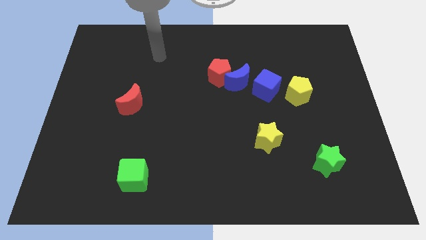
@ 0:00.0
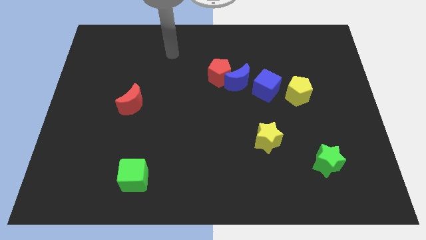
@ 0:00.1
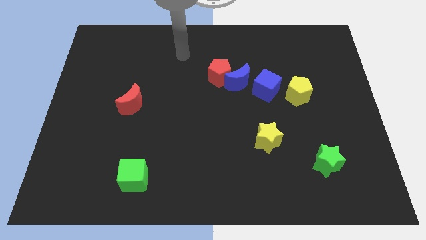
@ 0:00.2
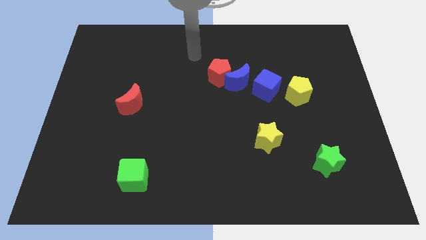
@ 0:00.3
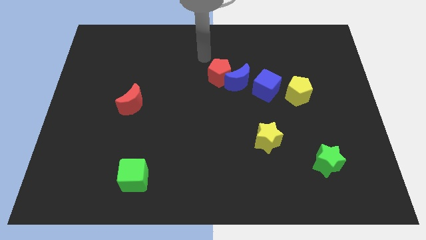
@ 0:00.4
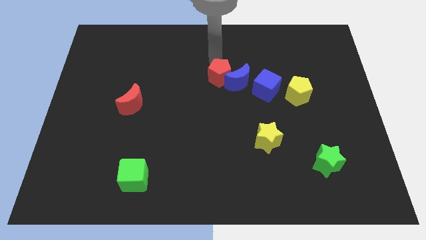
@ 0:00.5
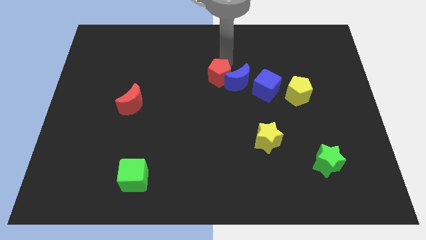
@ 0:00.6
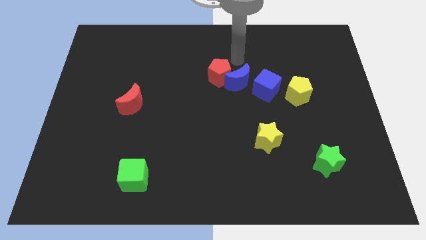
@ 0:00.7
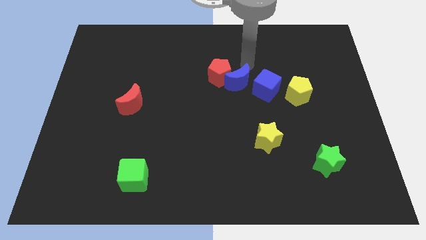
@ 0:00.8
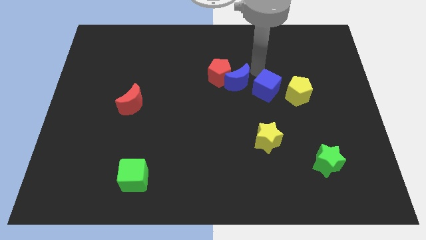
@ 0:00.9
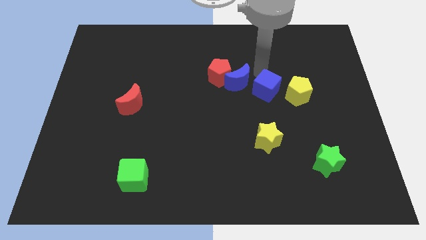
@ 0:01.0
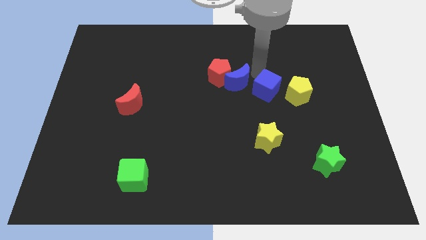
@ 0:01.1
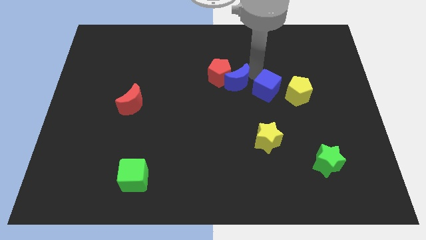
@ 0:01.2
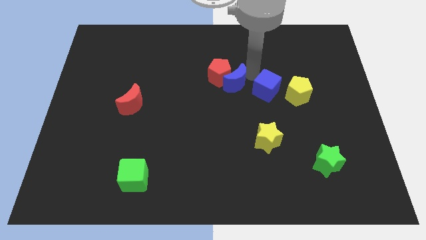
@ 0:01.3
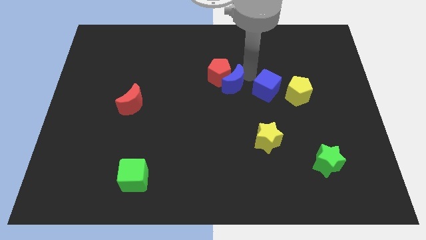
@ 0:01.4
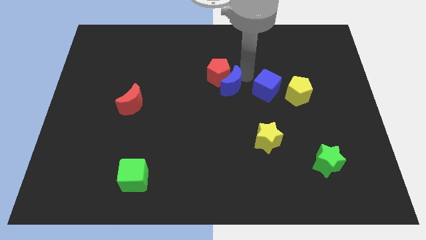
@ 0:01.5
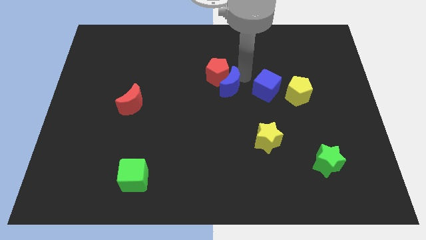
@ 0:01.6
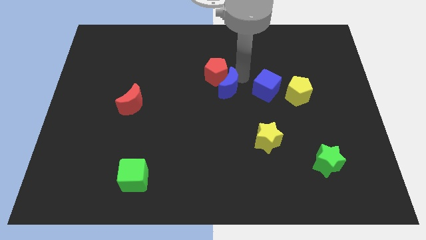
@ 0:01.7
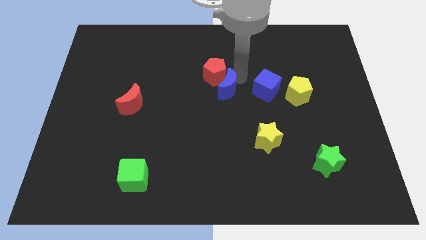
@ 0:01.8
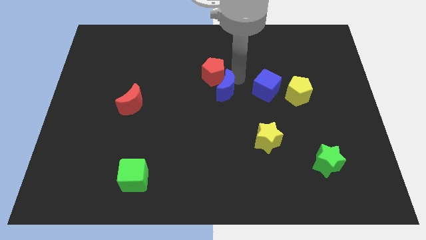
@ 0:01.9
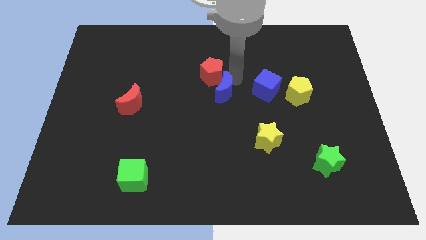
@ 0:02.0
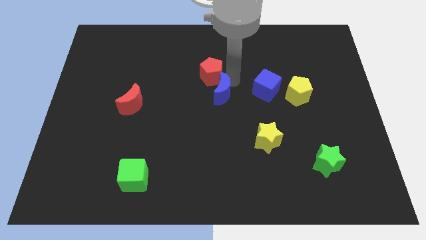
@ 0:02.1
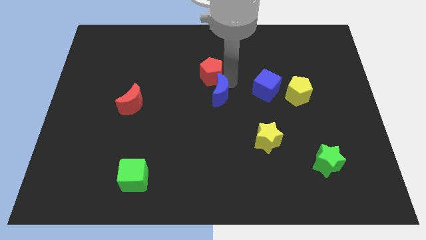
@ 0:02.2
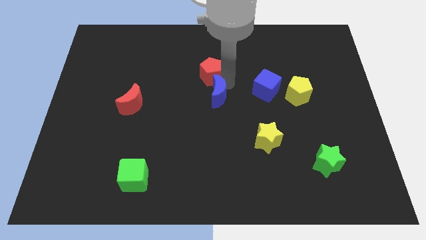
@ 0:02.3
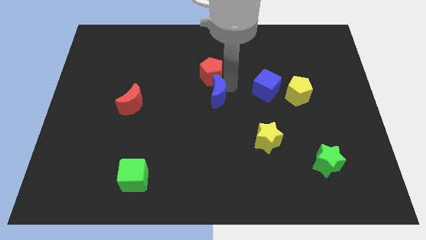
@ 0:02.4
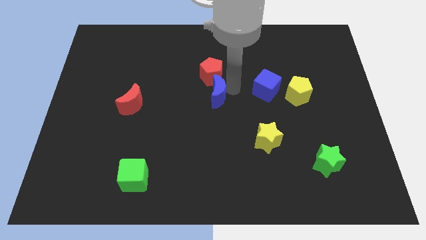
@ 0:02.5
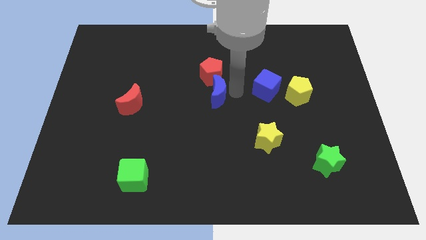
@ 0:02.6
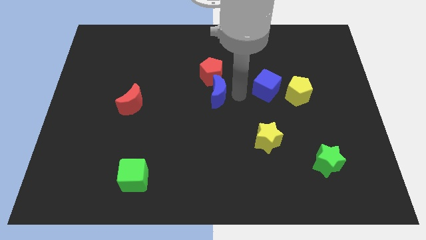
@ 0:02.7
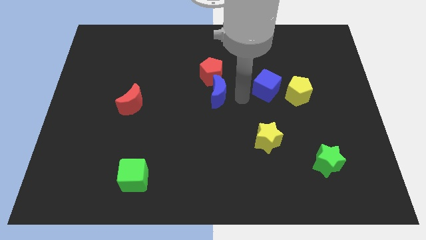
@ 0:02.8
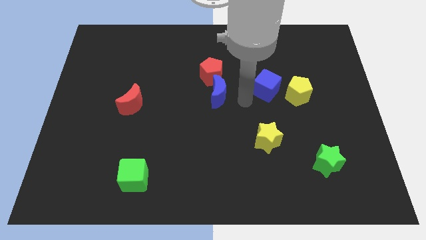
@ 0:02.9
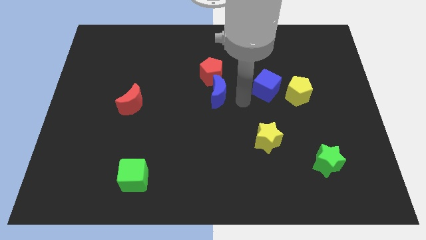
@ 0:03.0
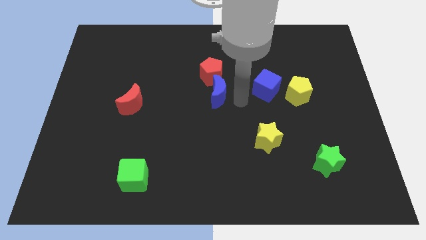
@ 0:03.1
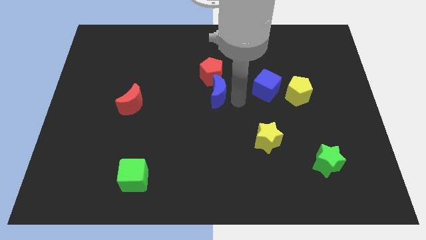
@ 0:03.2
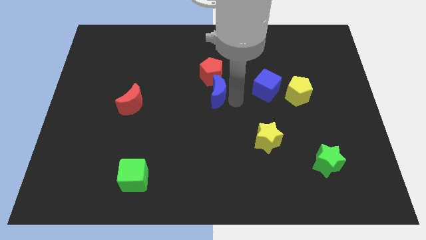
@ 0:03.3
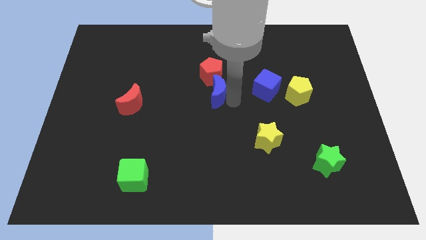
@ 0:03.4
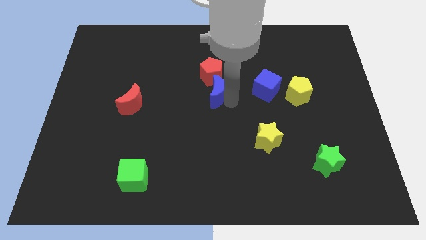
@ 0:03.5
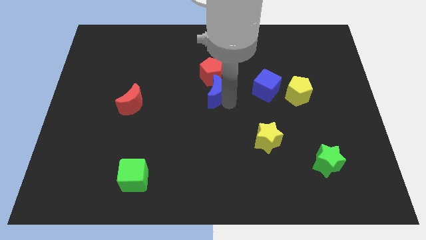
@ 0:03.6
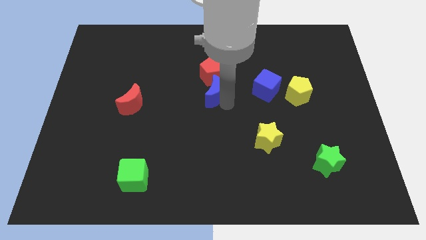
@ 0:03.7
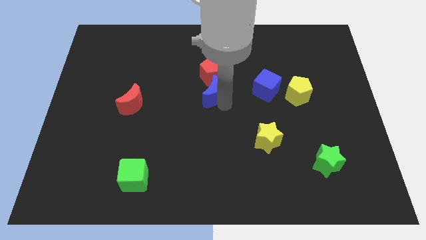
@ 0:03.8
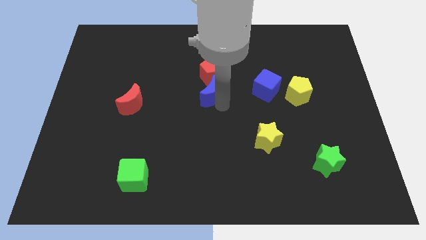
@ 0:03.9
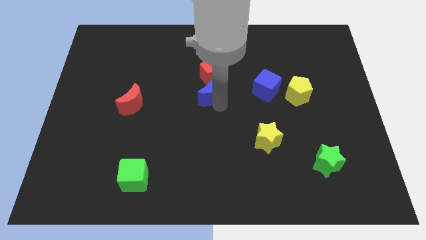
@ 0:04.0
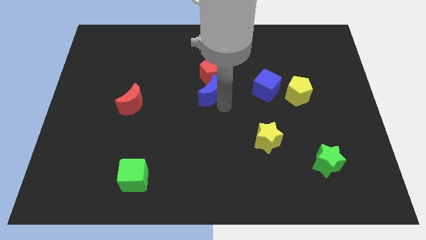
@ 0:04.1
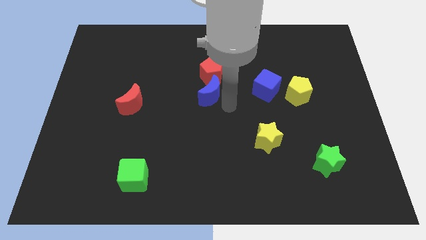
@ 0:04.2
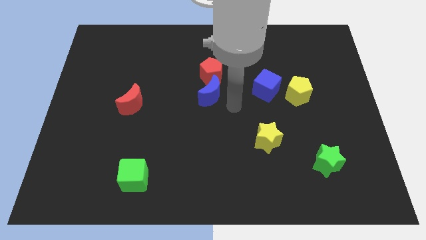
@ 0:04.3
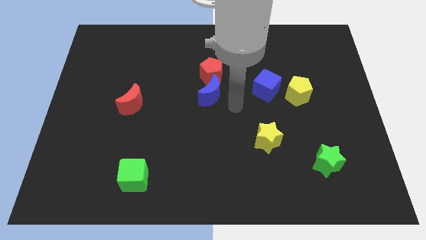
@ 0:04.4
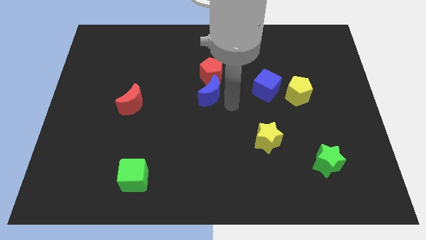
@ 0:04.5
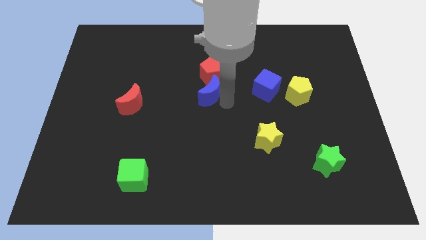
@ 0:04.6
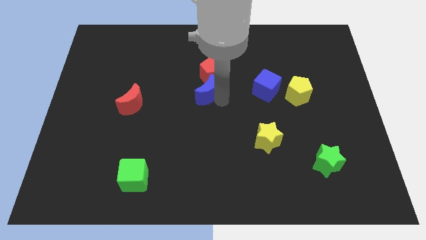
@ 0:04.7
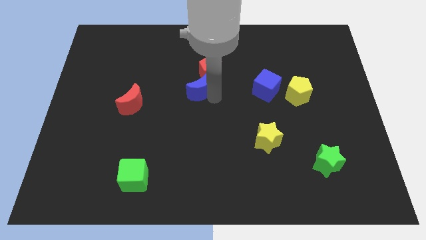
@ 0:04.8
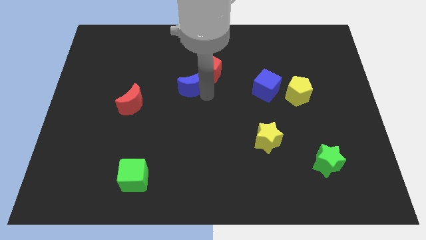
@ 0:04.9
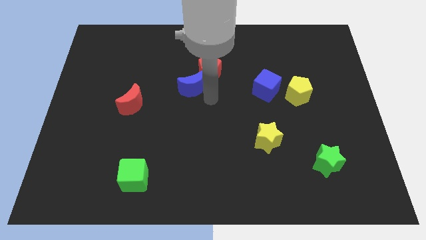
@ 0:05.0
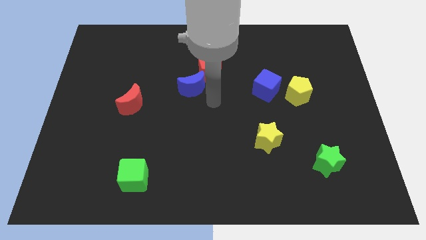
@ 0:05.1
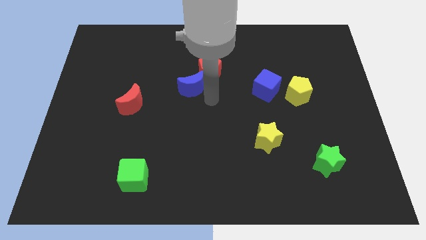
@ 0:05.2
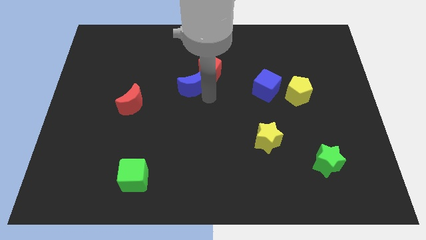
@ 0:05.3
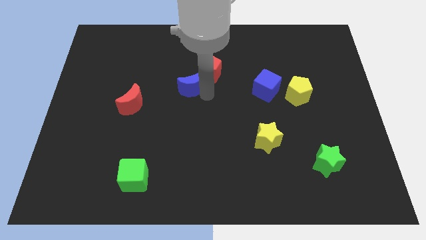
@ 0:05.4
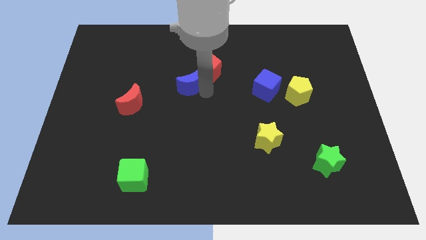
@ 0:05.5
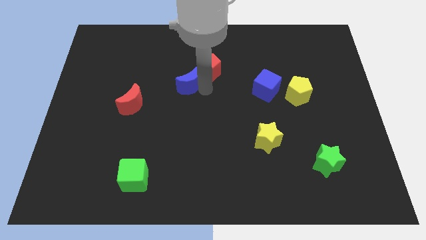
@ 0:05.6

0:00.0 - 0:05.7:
push the blue moon to the left of the red pentagon

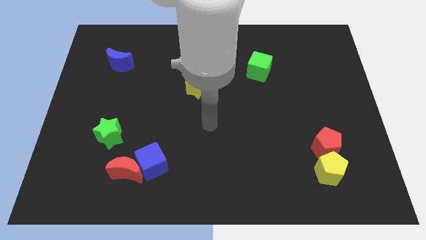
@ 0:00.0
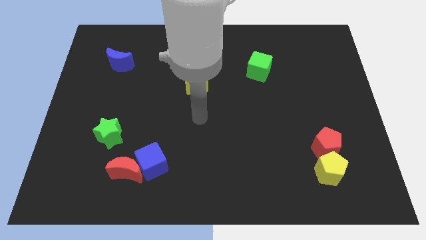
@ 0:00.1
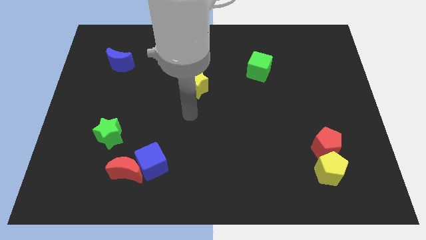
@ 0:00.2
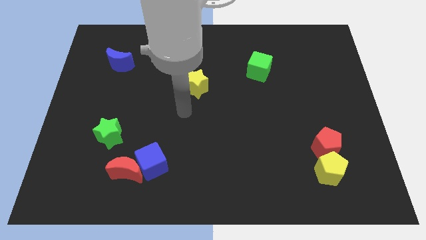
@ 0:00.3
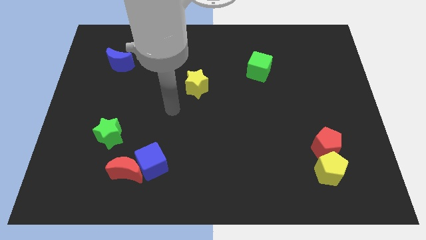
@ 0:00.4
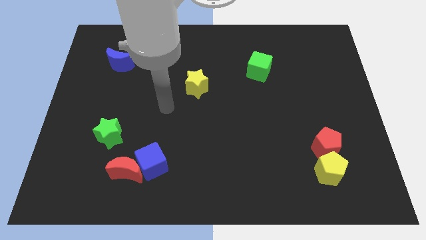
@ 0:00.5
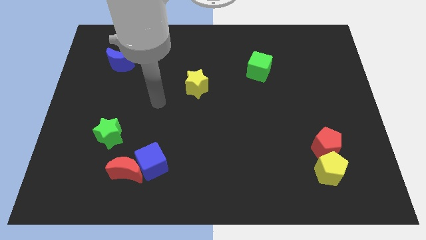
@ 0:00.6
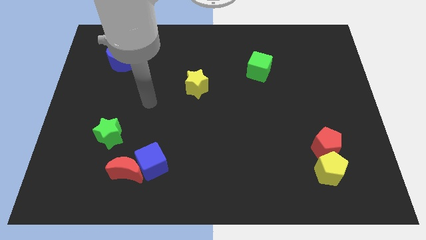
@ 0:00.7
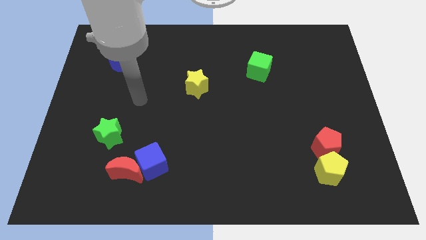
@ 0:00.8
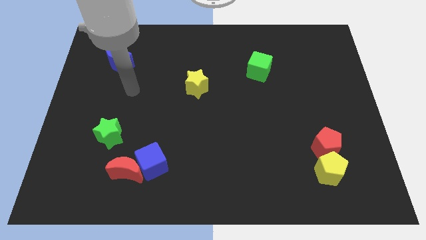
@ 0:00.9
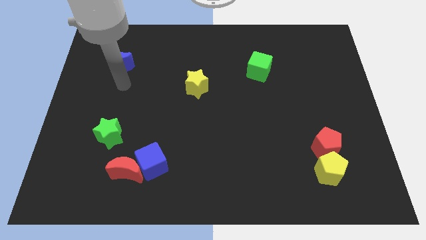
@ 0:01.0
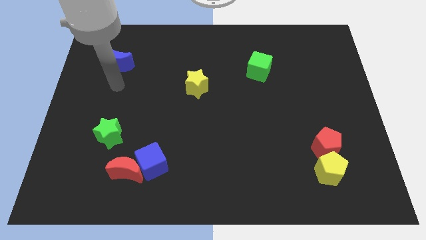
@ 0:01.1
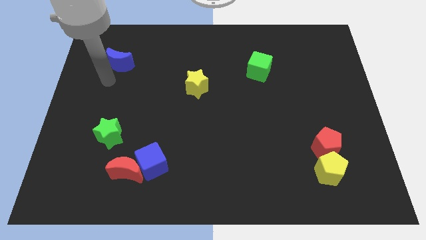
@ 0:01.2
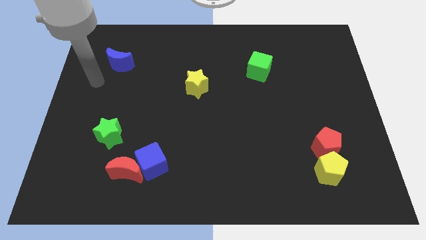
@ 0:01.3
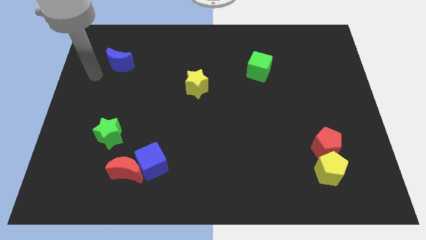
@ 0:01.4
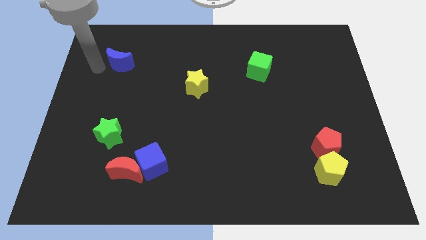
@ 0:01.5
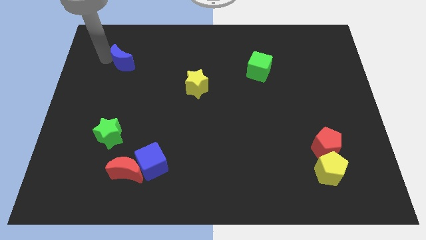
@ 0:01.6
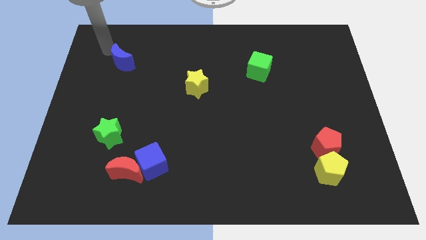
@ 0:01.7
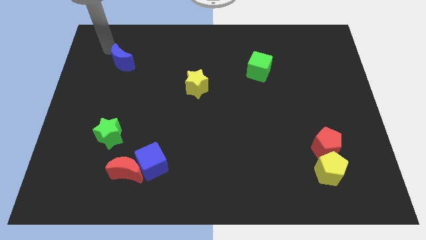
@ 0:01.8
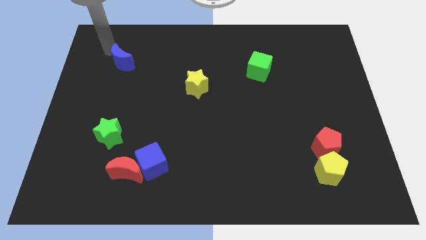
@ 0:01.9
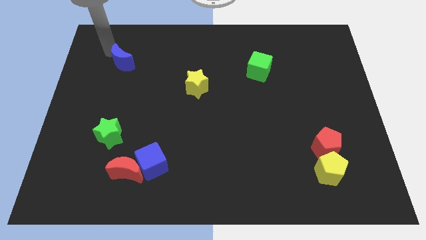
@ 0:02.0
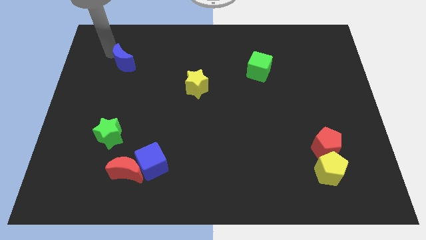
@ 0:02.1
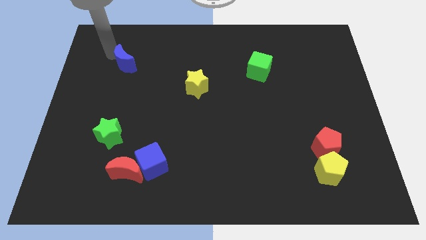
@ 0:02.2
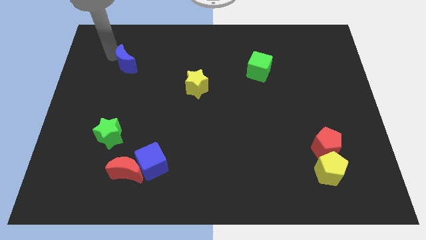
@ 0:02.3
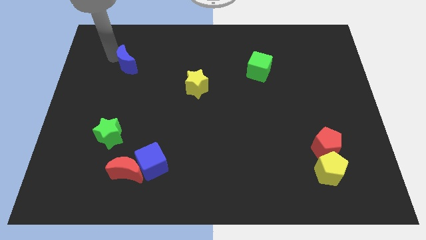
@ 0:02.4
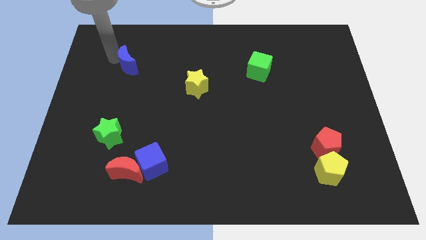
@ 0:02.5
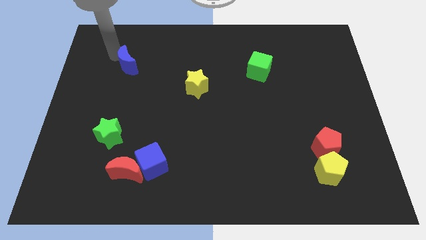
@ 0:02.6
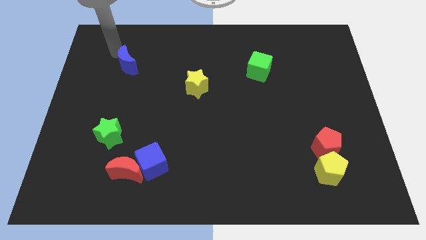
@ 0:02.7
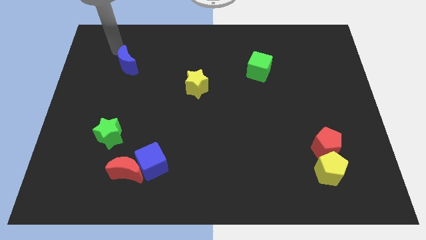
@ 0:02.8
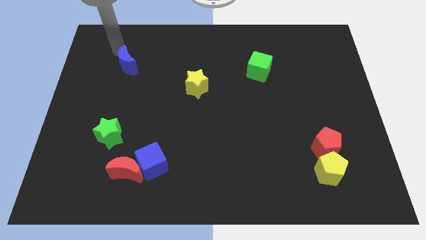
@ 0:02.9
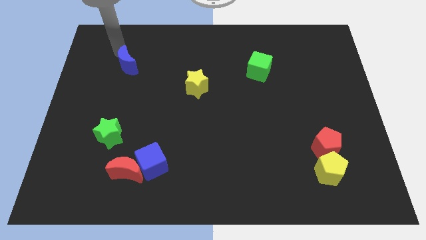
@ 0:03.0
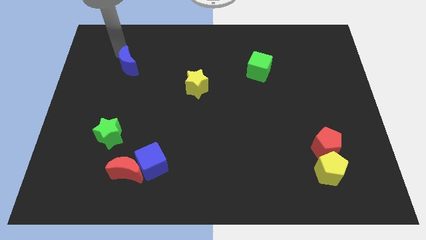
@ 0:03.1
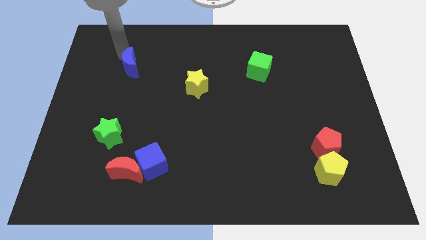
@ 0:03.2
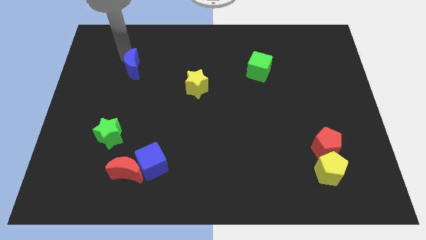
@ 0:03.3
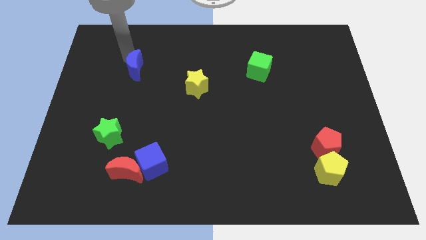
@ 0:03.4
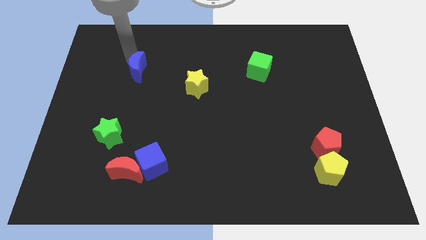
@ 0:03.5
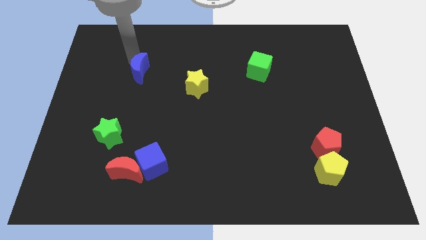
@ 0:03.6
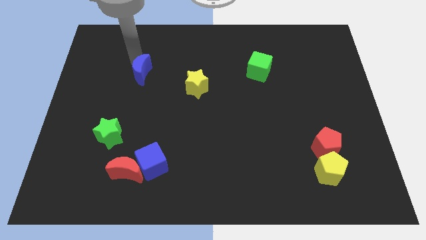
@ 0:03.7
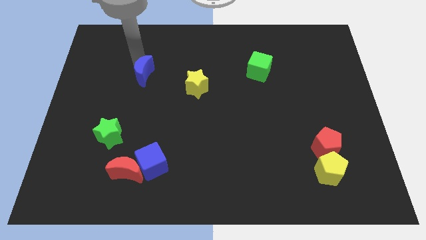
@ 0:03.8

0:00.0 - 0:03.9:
put the blue moon to the left side of the yellow star
